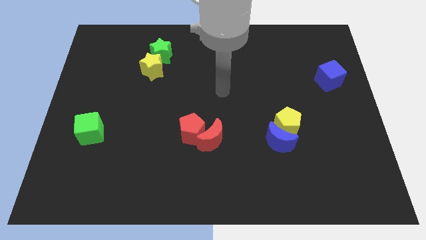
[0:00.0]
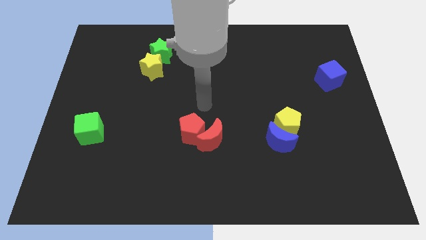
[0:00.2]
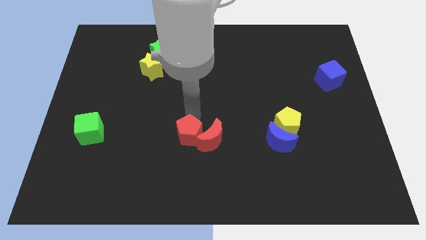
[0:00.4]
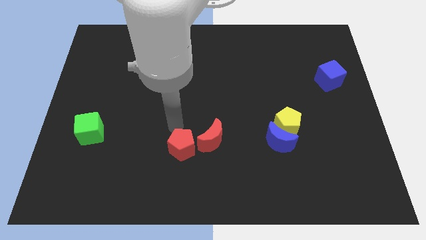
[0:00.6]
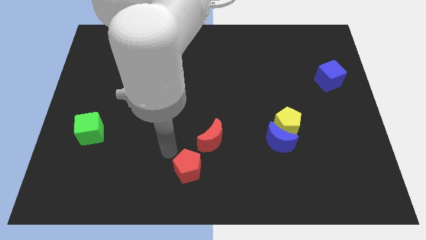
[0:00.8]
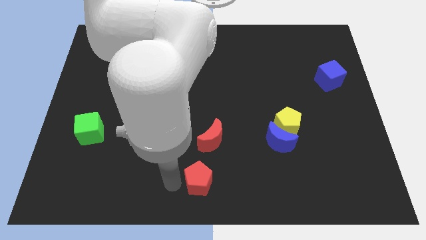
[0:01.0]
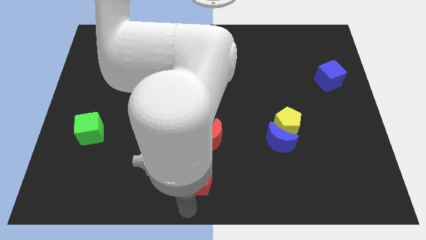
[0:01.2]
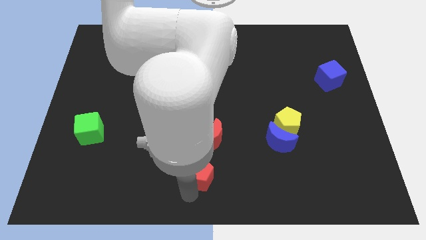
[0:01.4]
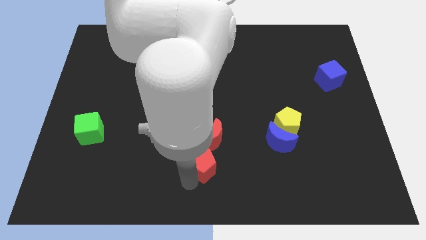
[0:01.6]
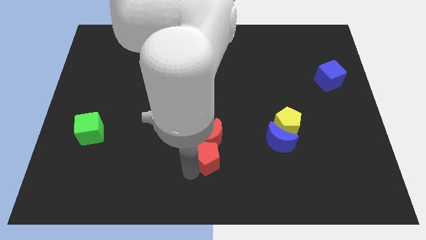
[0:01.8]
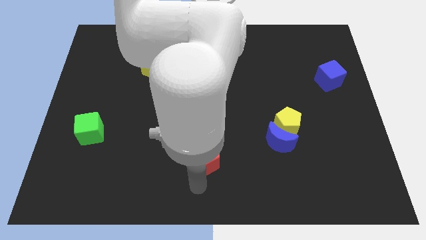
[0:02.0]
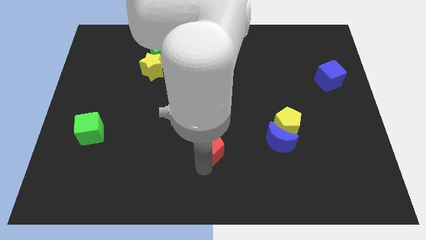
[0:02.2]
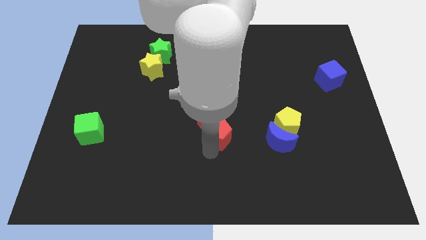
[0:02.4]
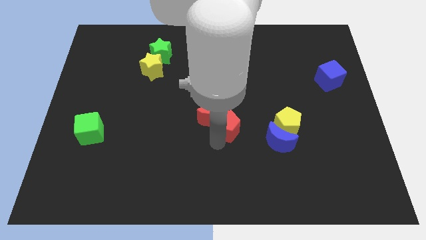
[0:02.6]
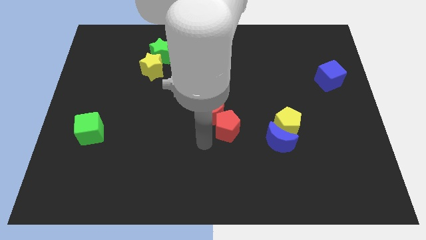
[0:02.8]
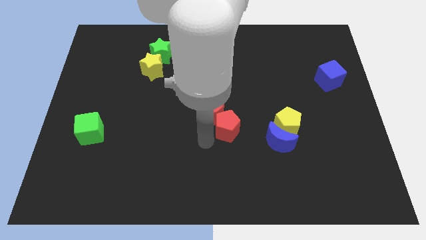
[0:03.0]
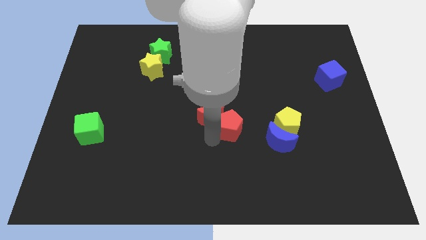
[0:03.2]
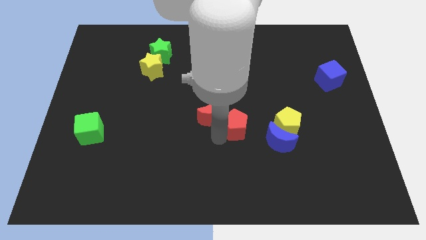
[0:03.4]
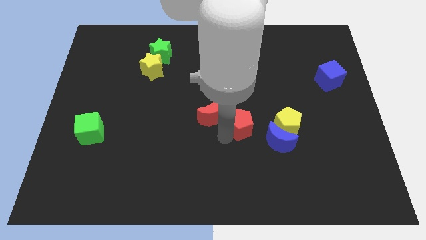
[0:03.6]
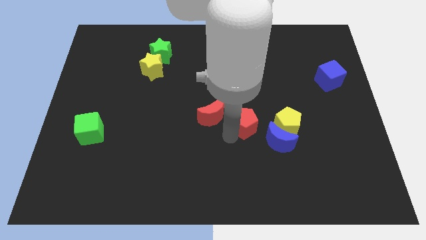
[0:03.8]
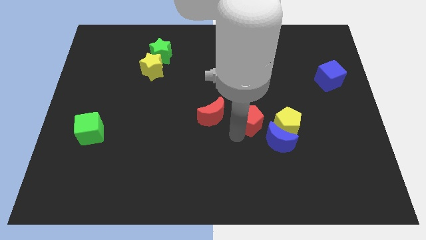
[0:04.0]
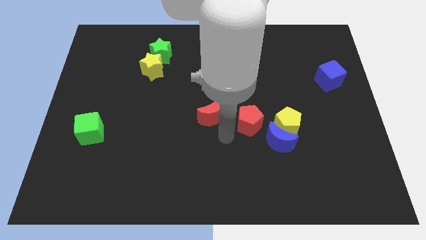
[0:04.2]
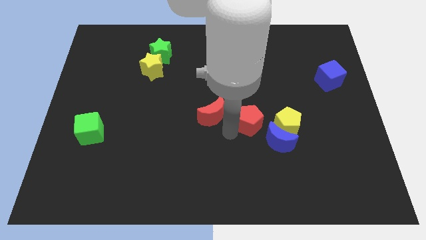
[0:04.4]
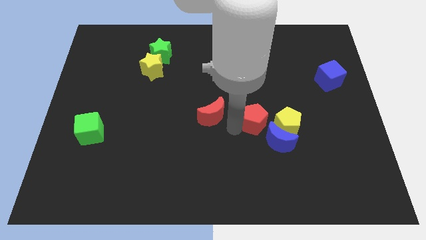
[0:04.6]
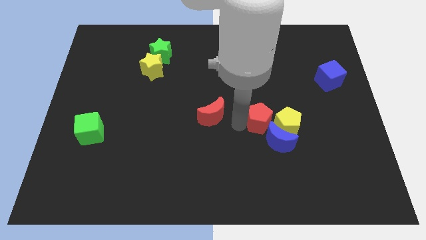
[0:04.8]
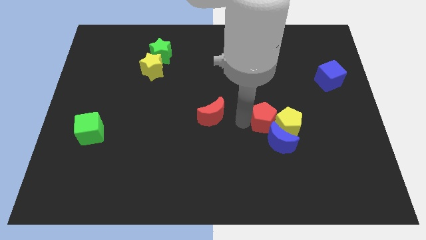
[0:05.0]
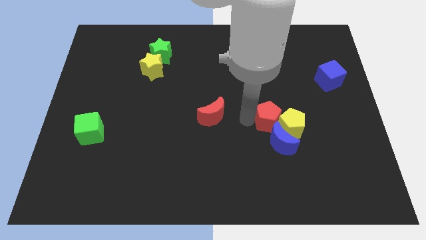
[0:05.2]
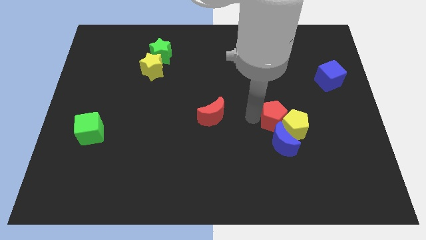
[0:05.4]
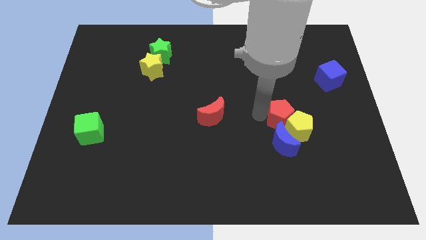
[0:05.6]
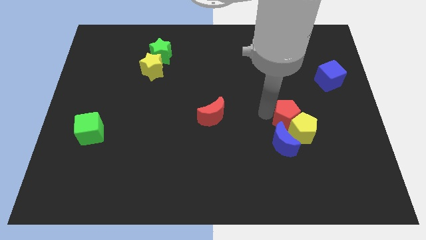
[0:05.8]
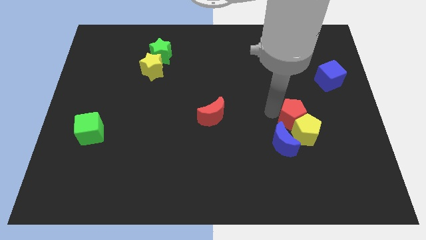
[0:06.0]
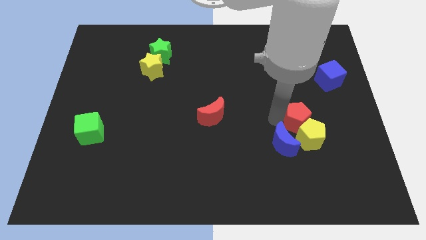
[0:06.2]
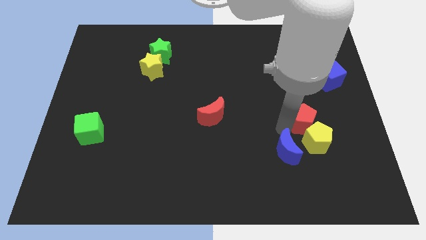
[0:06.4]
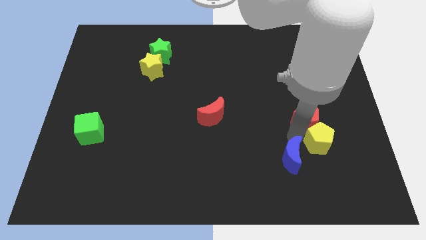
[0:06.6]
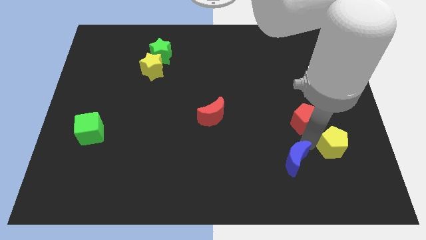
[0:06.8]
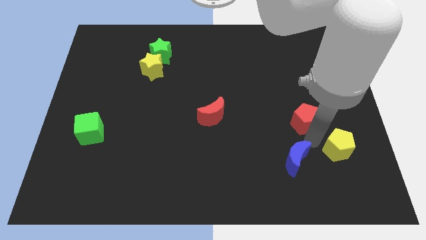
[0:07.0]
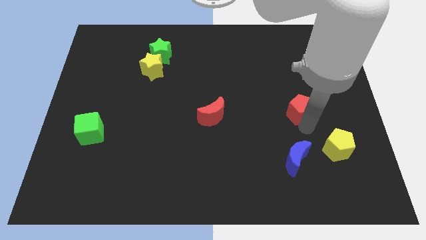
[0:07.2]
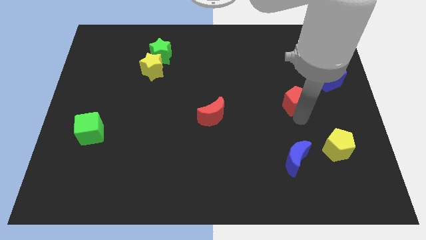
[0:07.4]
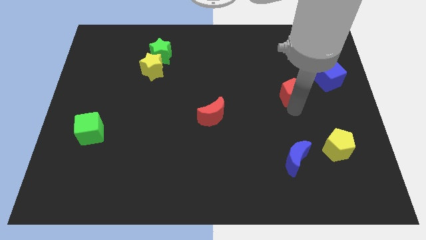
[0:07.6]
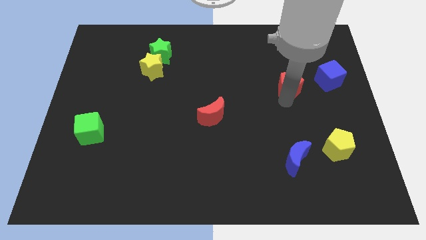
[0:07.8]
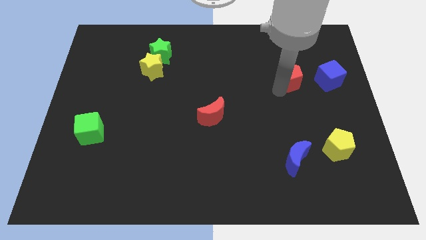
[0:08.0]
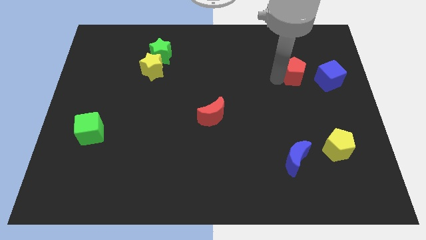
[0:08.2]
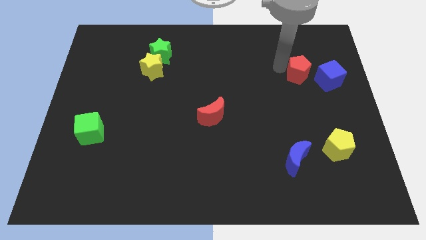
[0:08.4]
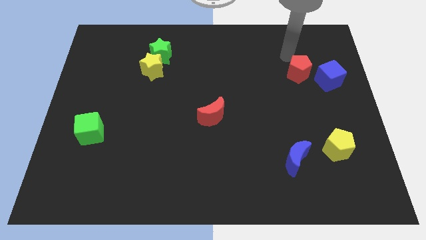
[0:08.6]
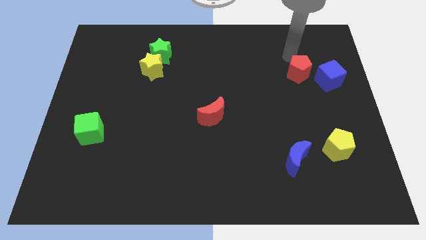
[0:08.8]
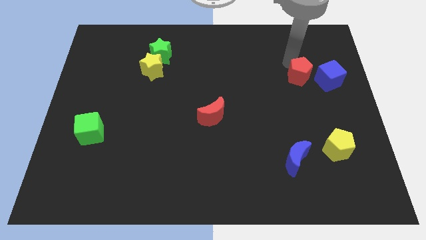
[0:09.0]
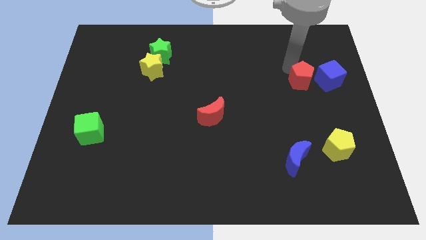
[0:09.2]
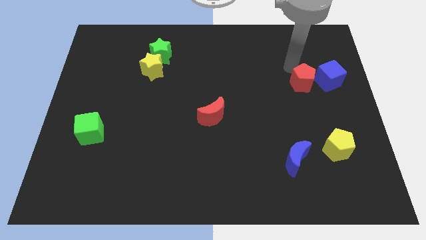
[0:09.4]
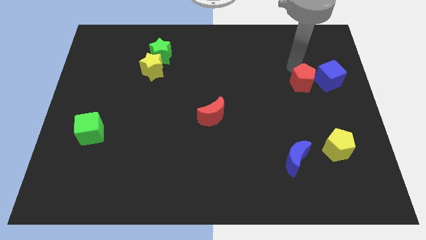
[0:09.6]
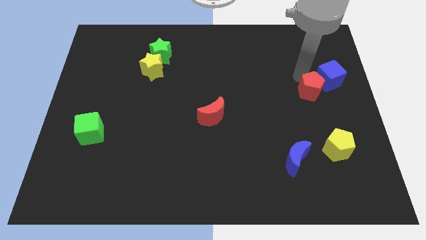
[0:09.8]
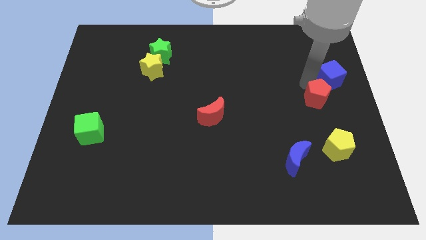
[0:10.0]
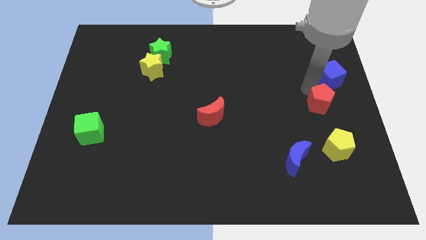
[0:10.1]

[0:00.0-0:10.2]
push the red pentagon to the right side

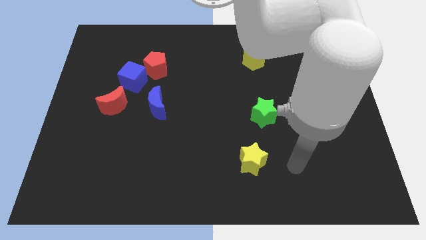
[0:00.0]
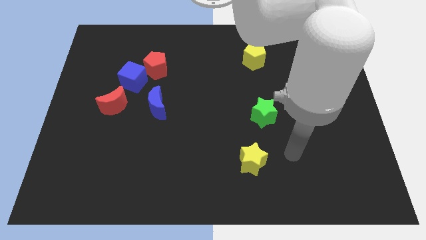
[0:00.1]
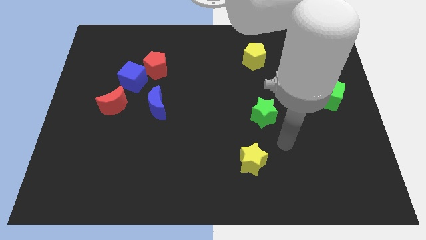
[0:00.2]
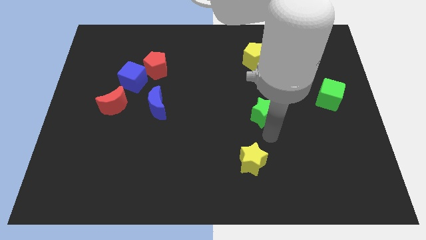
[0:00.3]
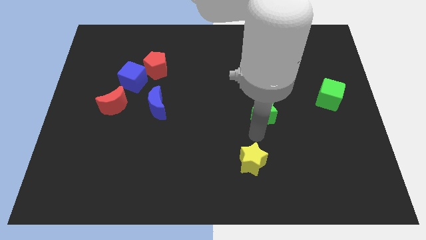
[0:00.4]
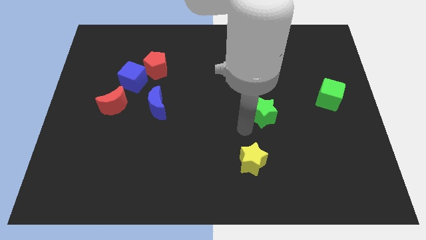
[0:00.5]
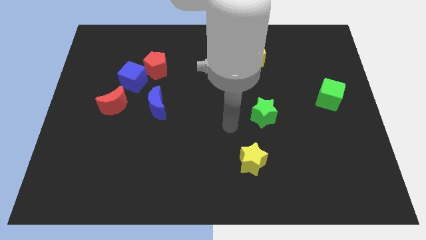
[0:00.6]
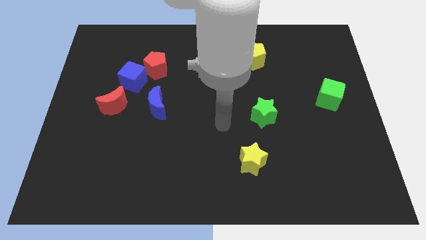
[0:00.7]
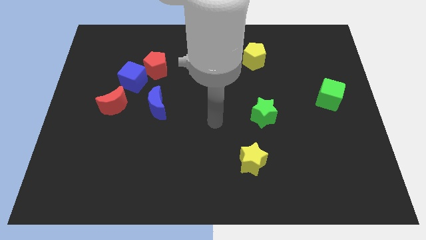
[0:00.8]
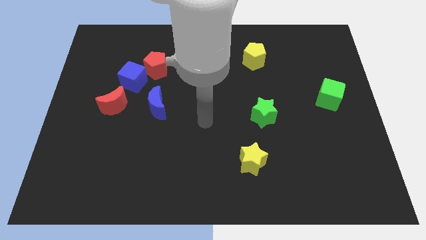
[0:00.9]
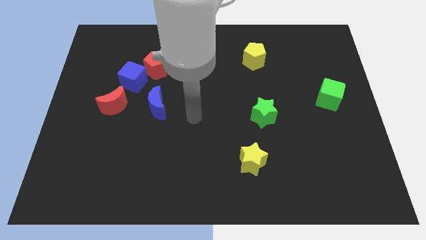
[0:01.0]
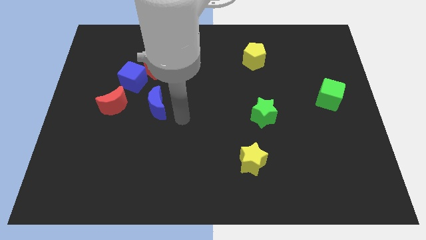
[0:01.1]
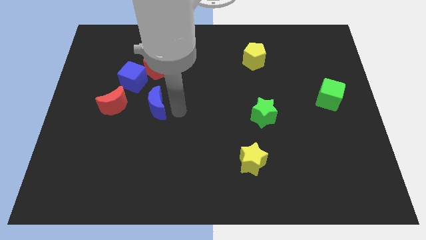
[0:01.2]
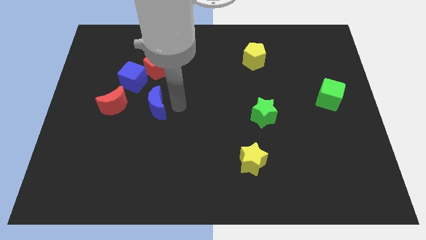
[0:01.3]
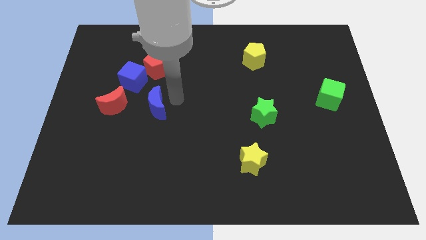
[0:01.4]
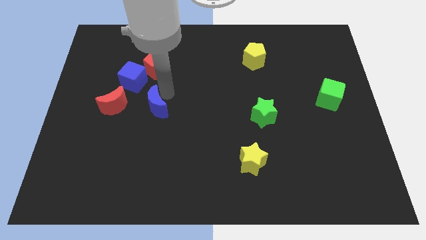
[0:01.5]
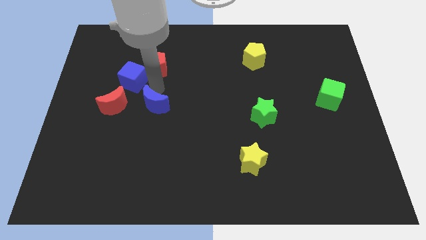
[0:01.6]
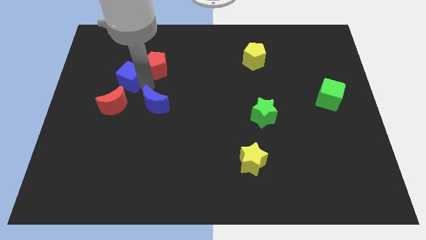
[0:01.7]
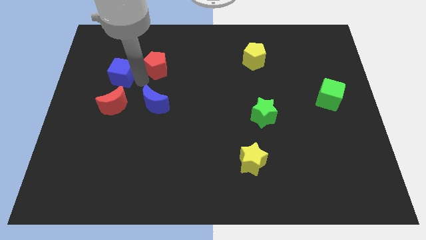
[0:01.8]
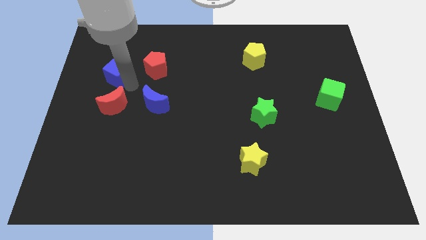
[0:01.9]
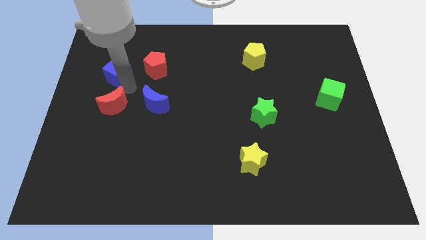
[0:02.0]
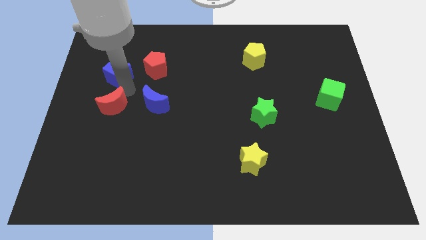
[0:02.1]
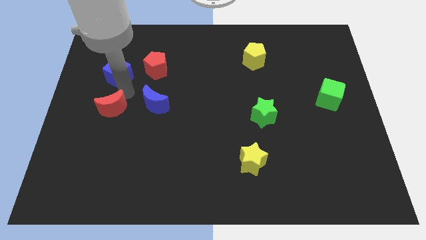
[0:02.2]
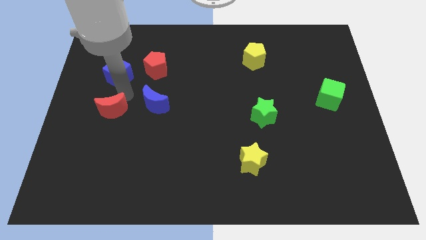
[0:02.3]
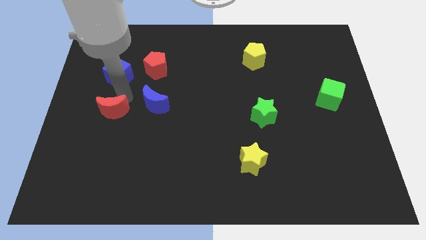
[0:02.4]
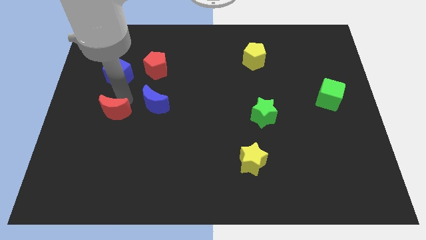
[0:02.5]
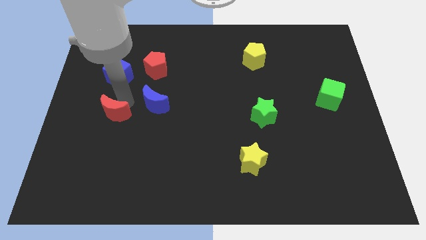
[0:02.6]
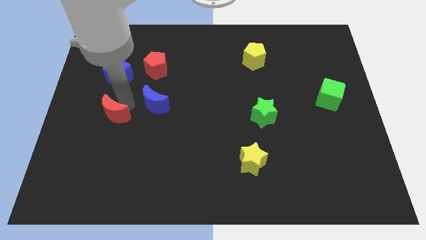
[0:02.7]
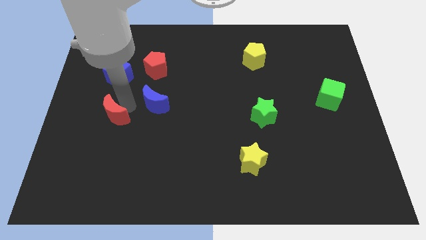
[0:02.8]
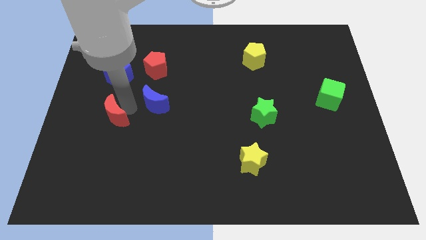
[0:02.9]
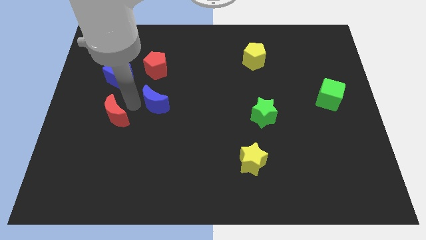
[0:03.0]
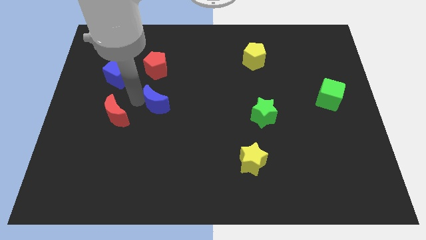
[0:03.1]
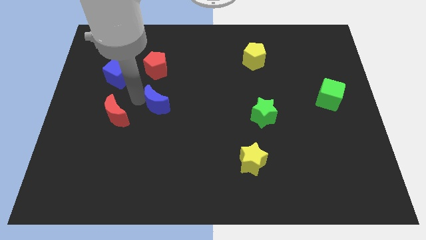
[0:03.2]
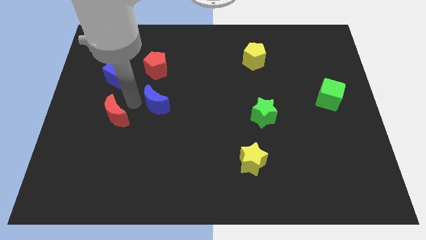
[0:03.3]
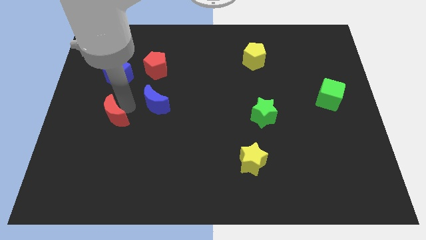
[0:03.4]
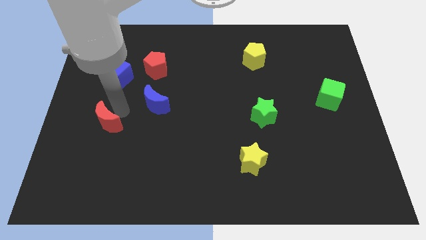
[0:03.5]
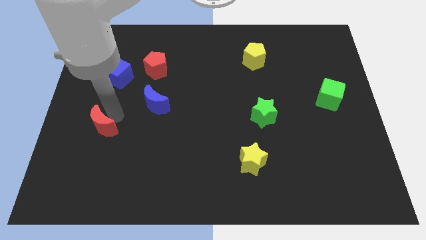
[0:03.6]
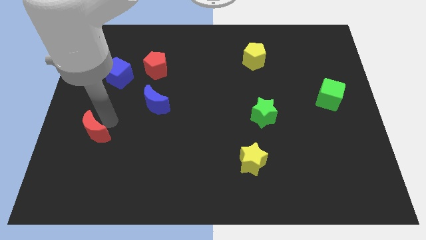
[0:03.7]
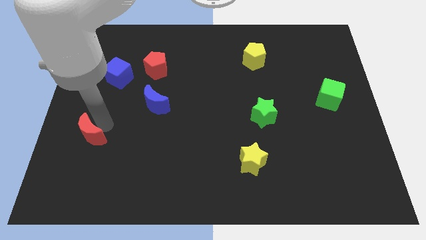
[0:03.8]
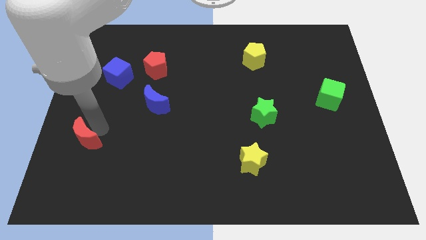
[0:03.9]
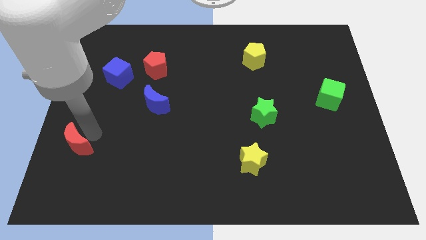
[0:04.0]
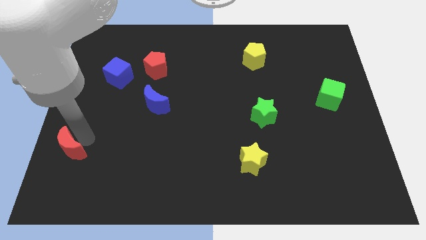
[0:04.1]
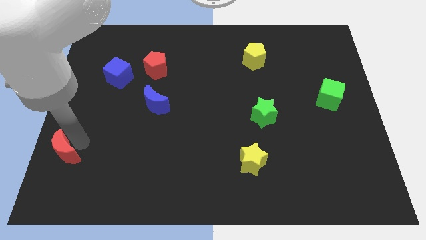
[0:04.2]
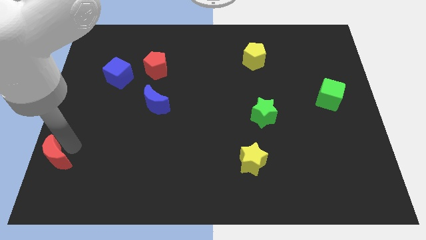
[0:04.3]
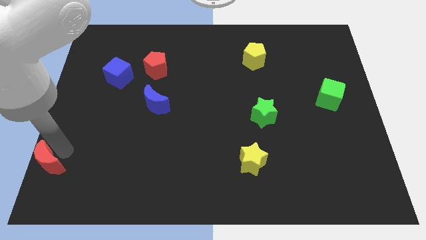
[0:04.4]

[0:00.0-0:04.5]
put the red moon to the bottom left of the board
